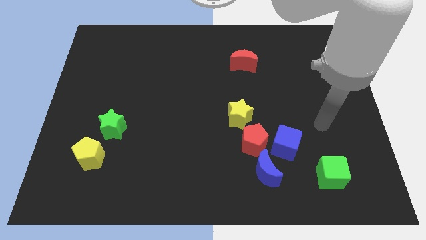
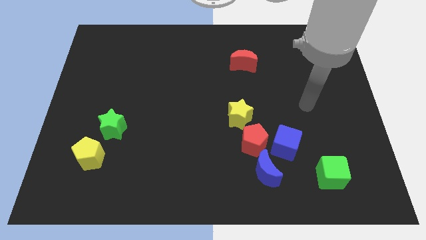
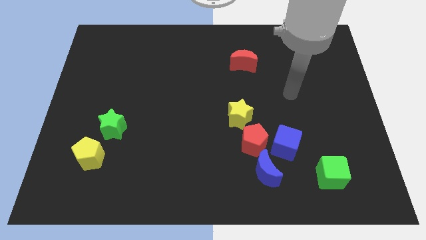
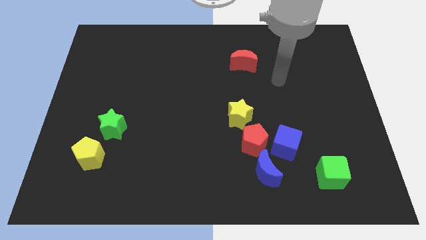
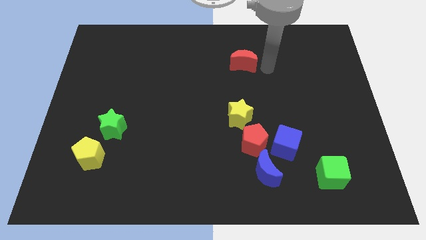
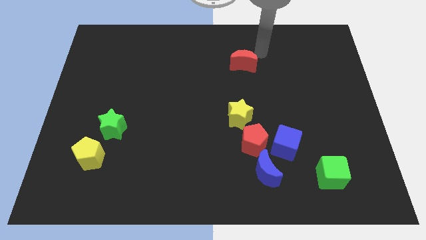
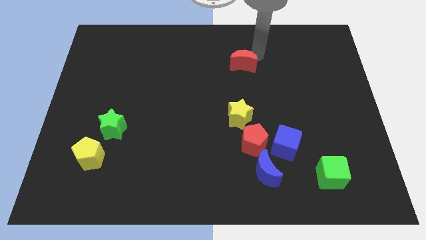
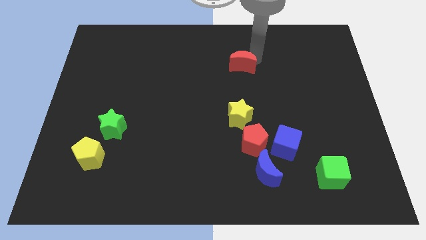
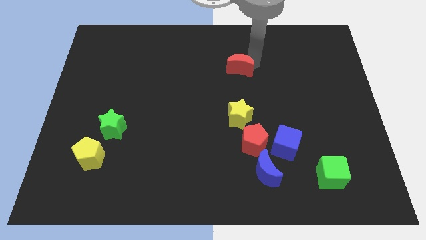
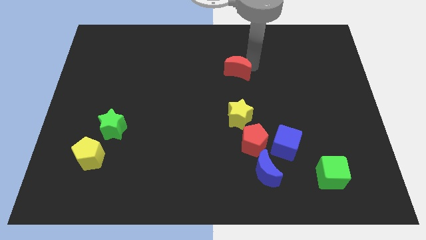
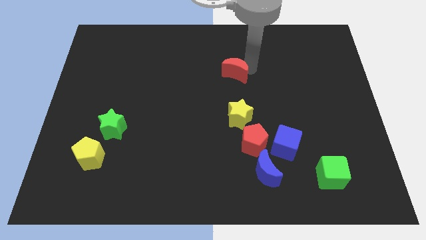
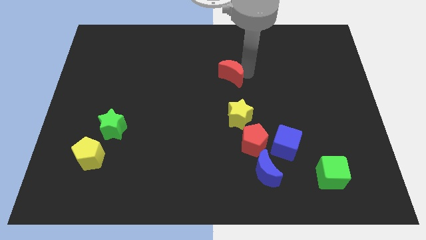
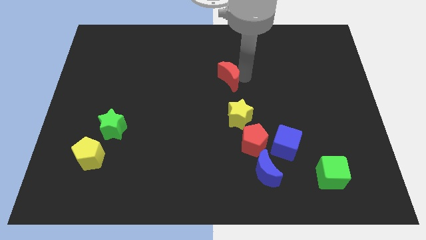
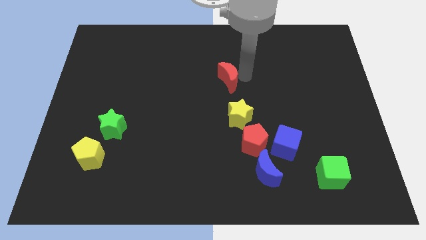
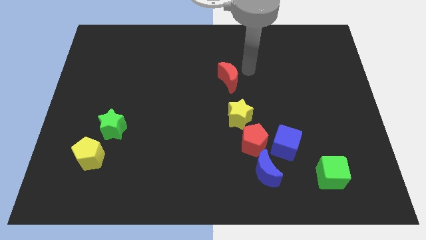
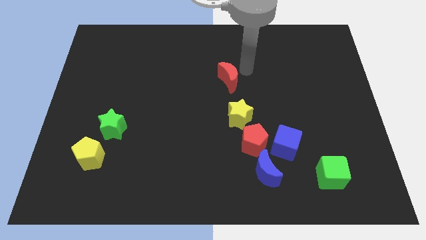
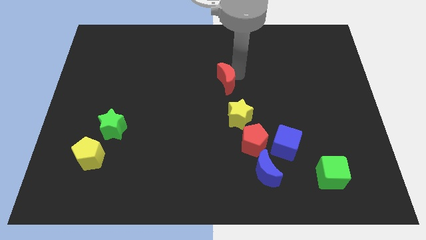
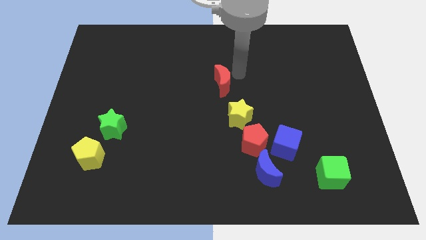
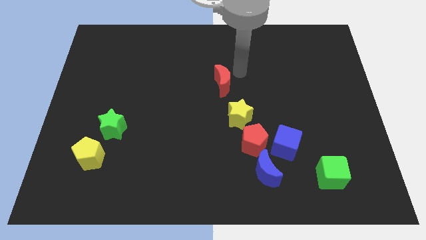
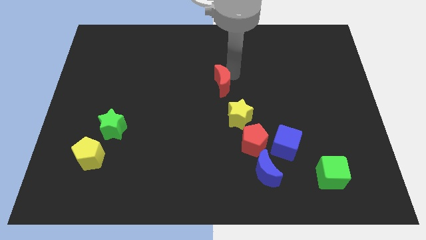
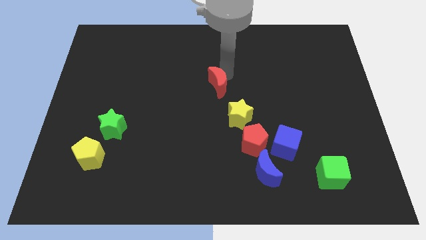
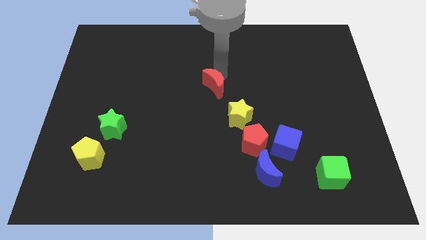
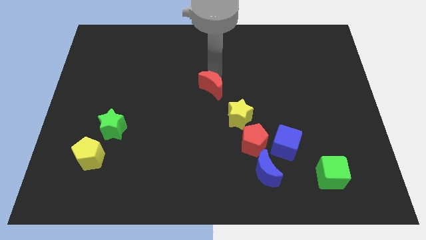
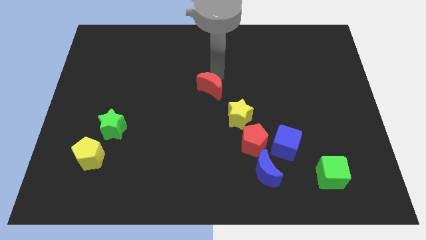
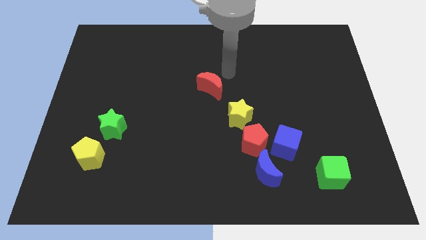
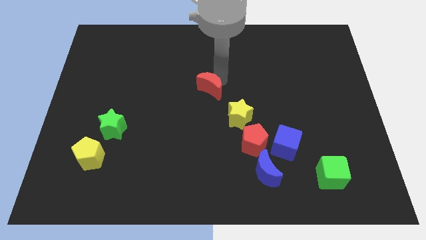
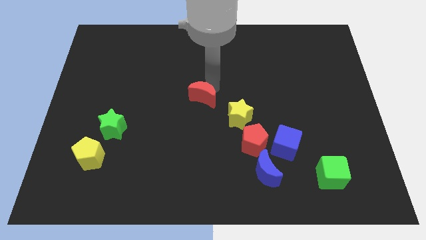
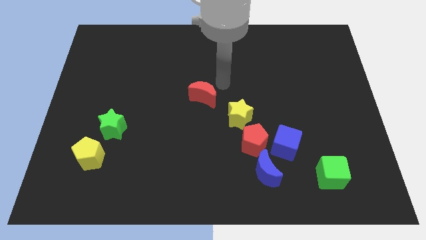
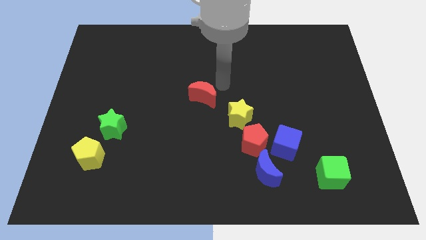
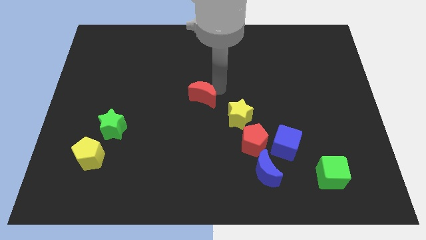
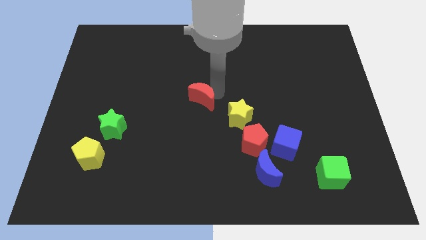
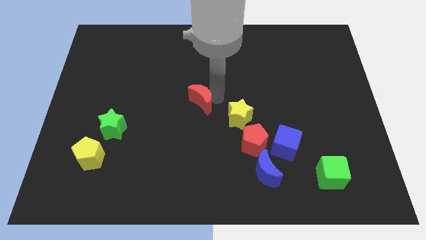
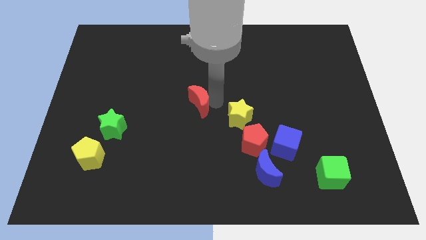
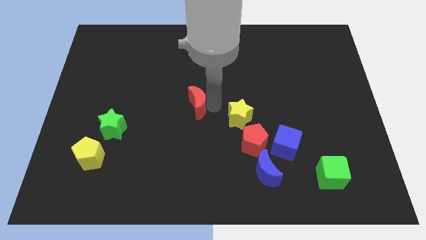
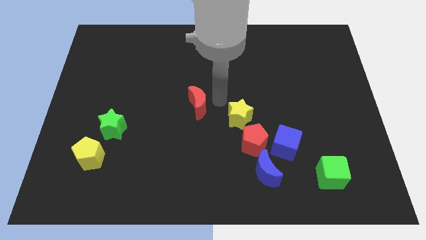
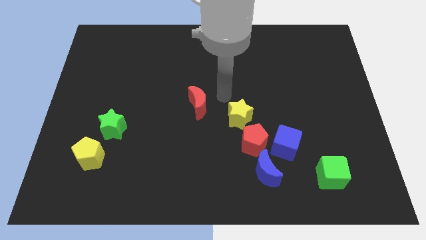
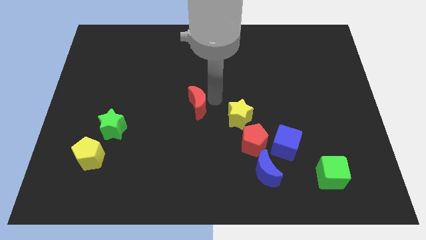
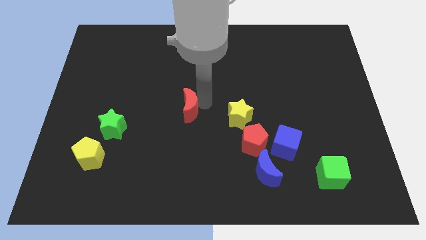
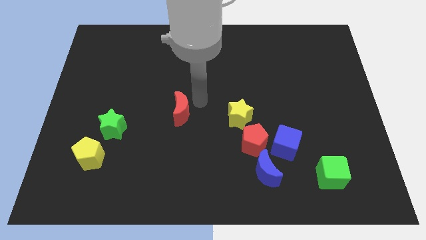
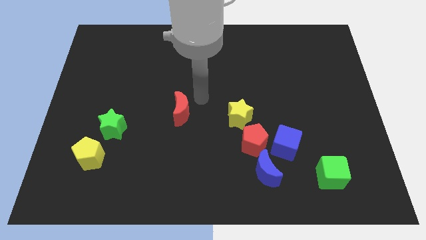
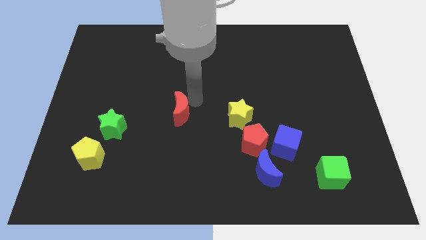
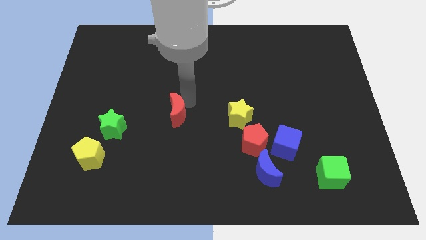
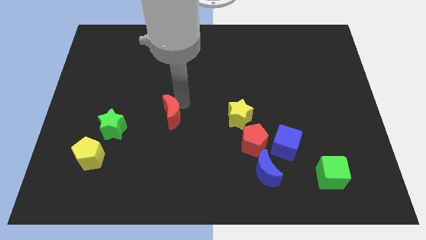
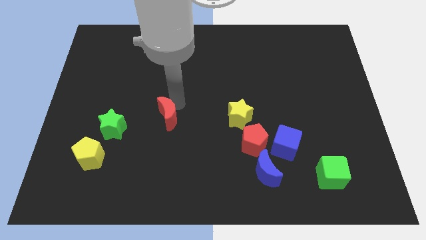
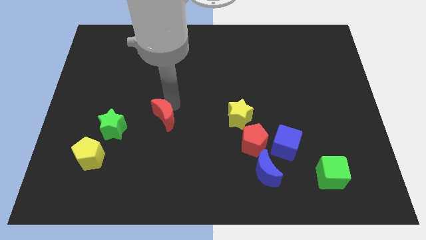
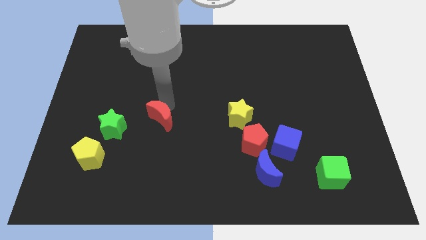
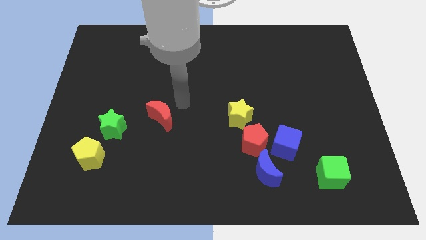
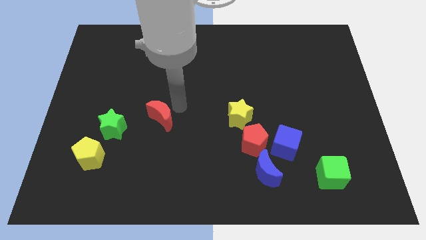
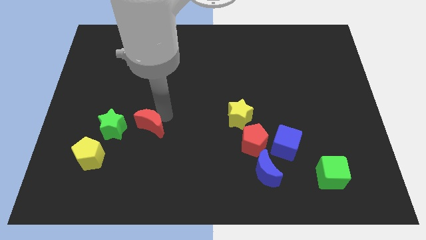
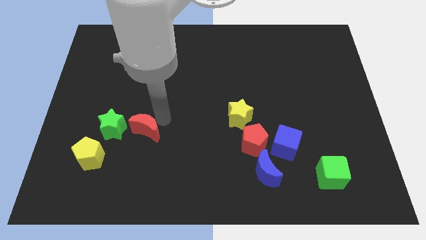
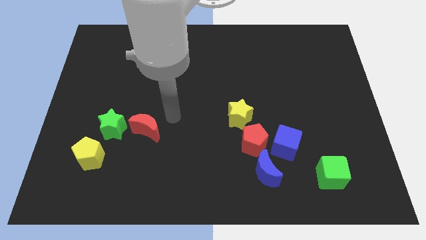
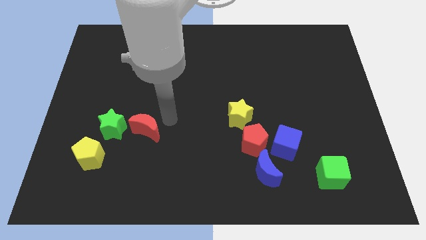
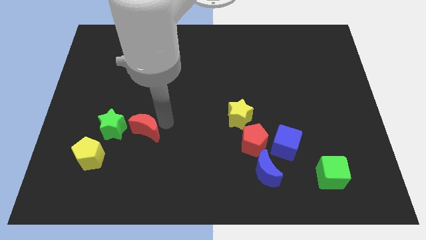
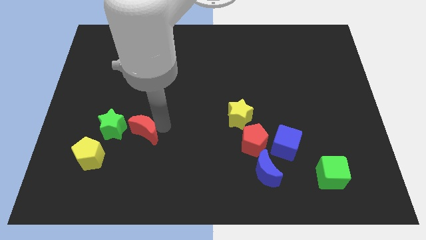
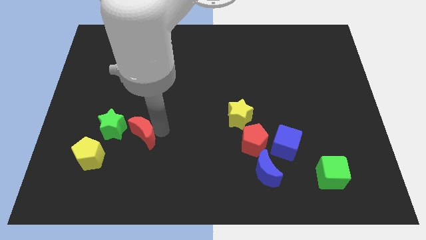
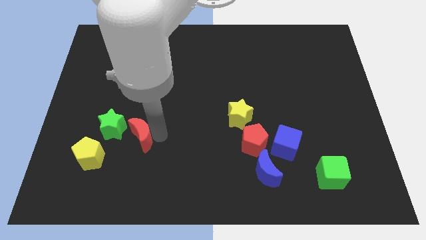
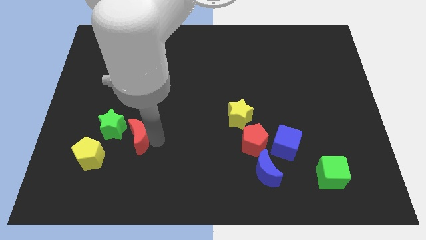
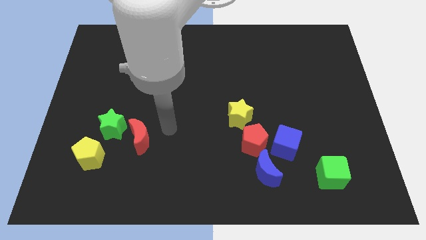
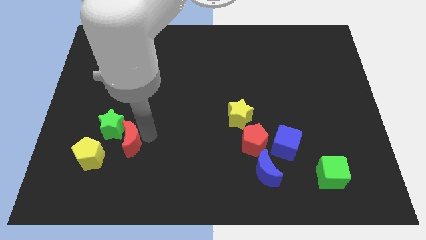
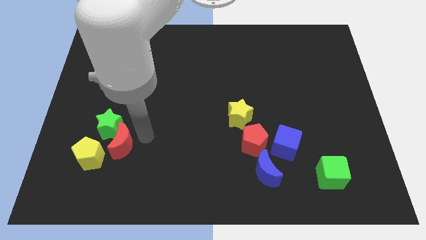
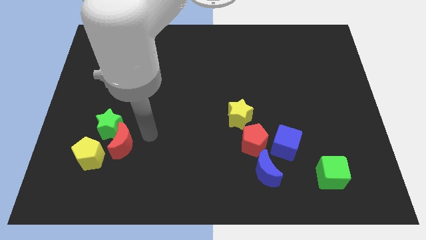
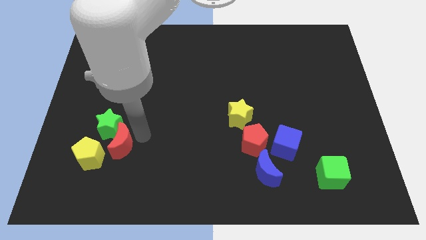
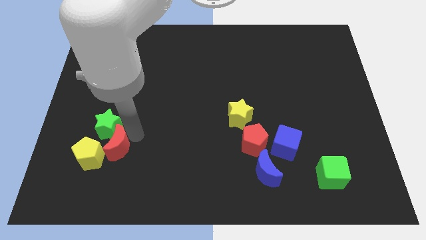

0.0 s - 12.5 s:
slide the red moon next to the yellow pentagon

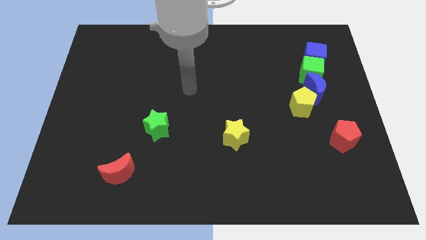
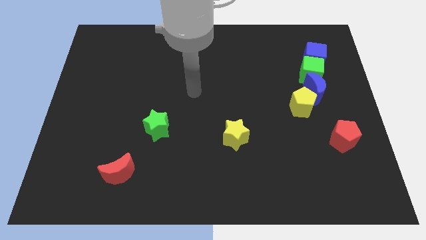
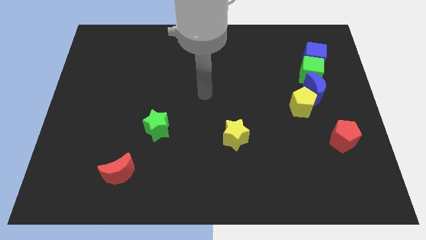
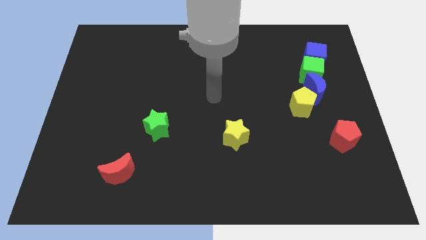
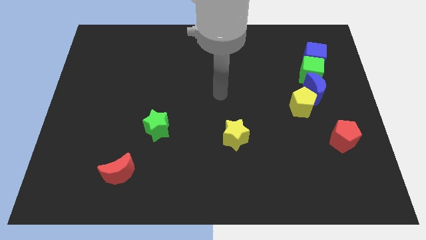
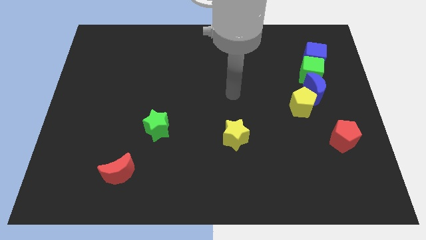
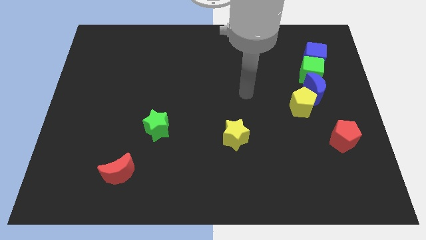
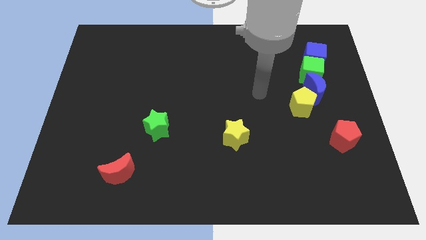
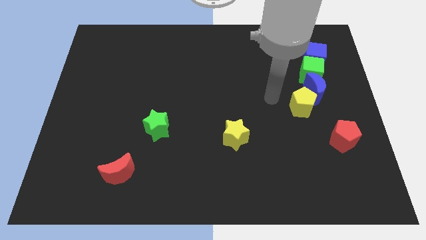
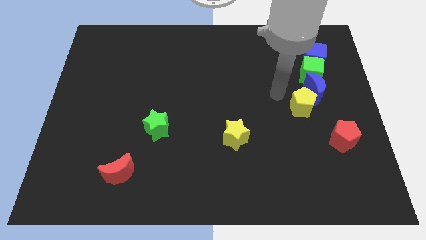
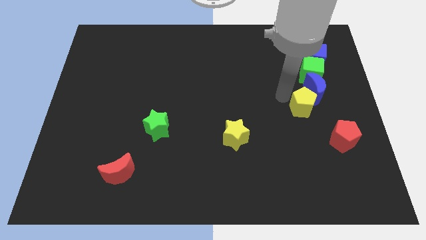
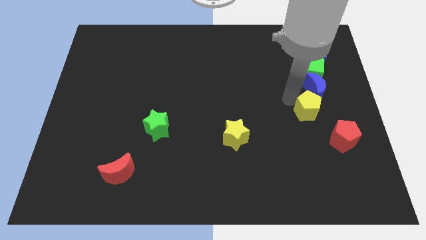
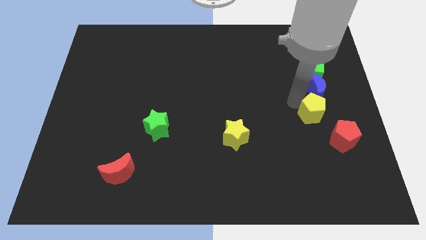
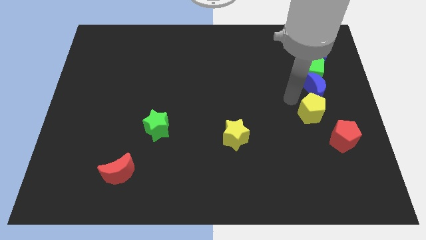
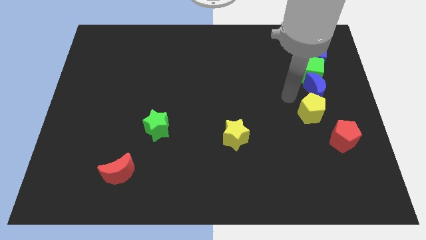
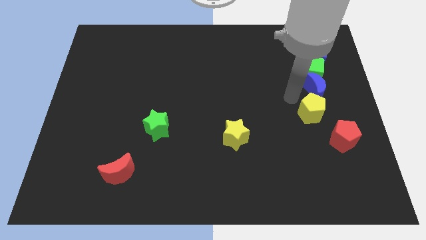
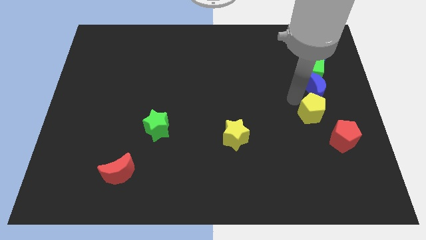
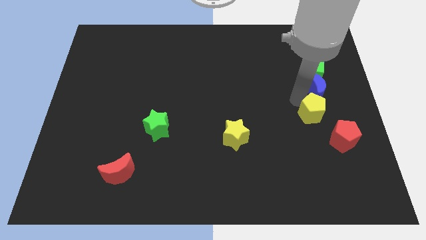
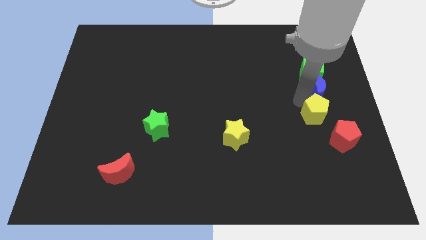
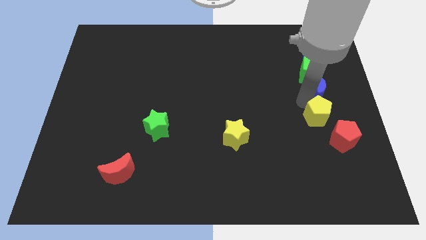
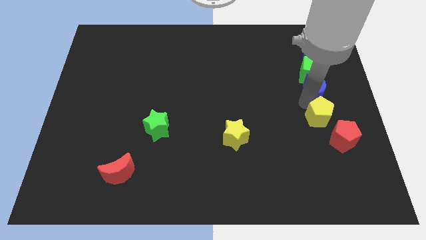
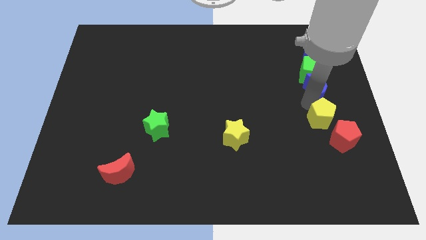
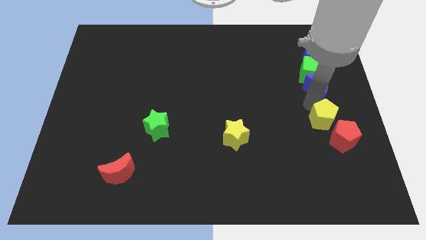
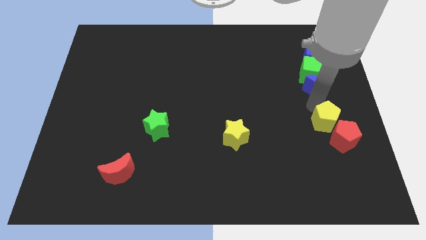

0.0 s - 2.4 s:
put the yellow pentagon to the red pentagon
